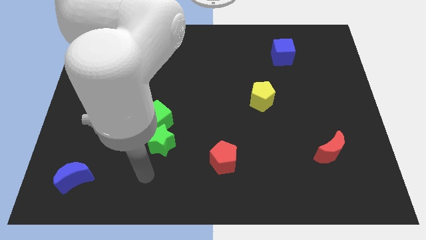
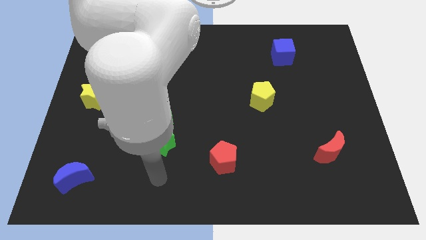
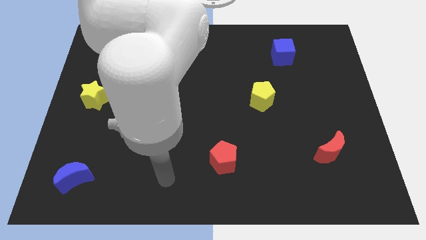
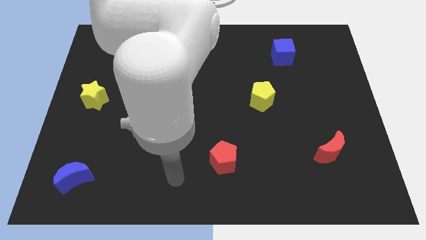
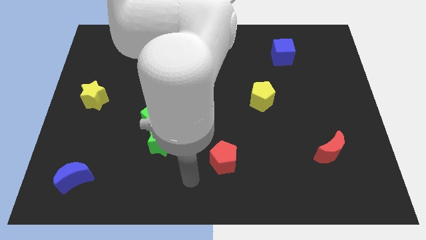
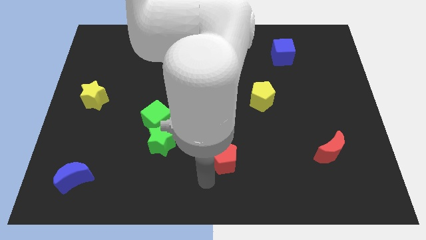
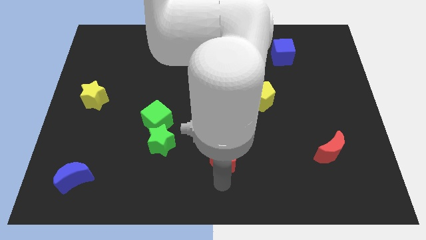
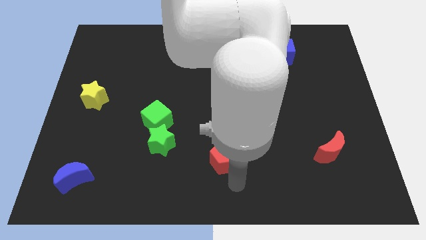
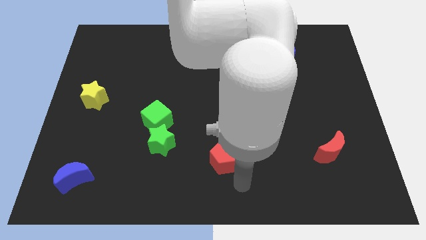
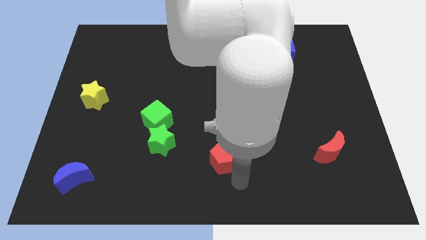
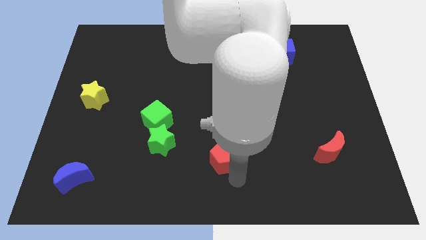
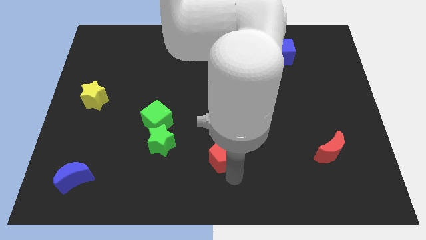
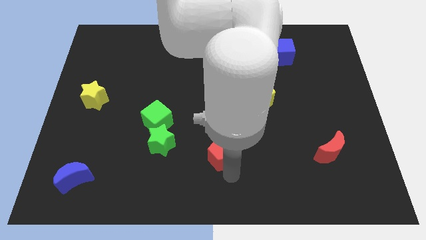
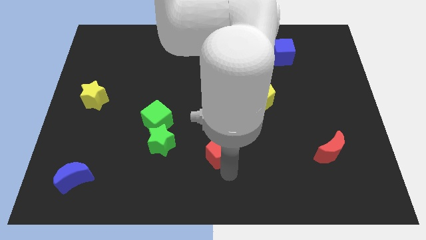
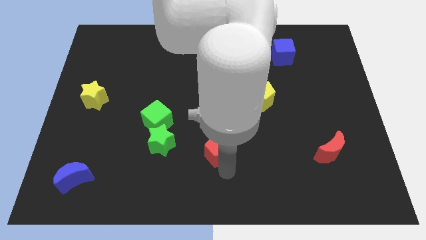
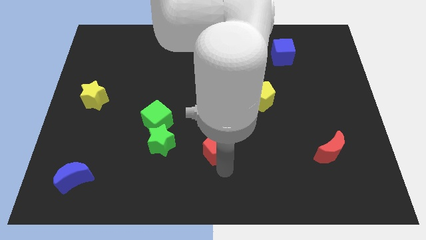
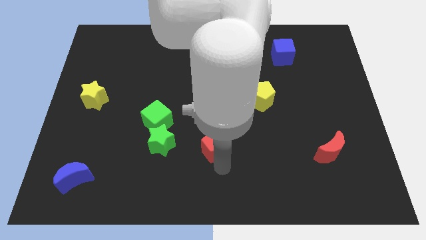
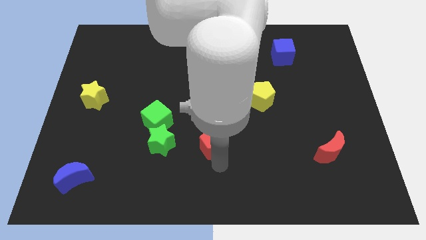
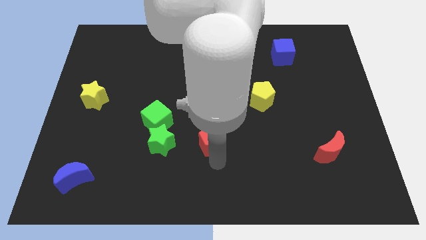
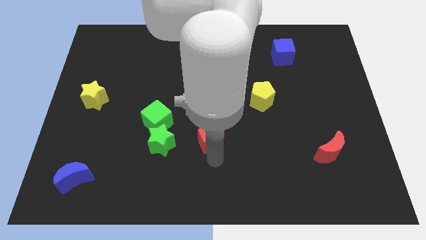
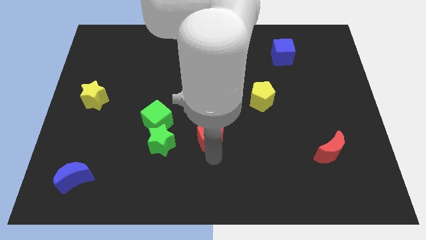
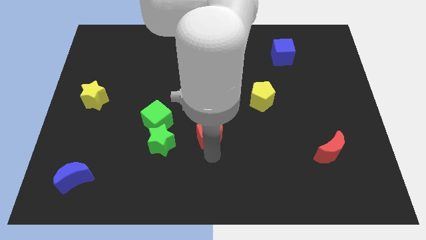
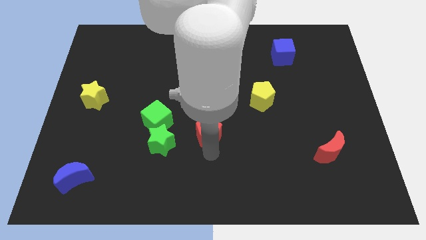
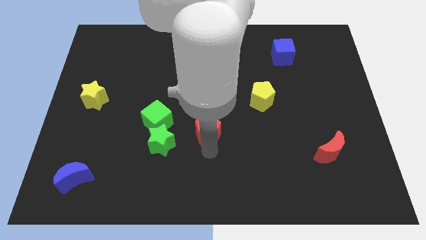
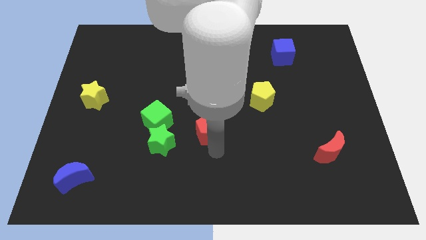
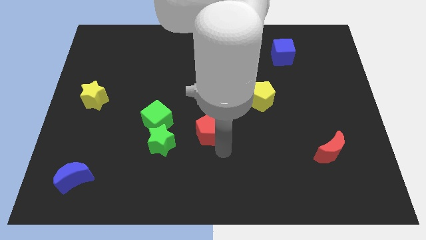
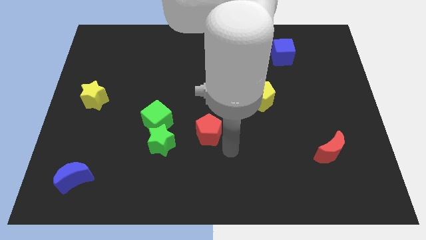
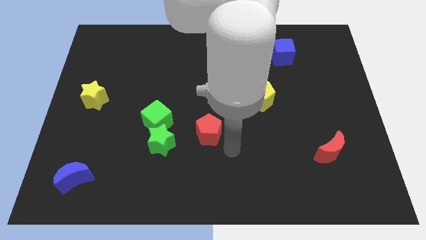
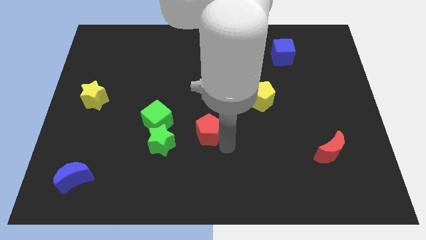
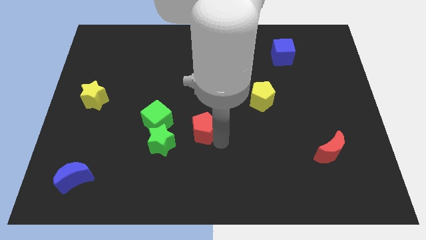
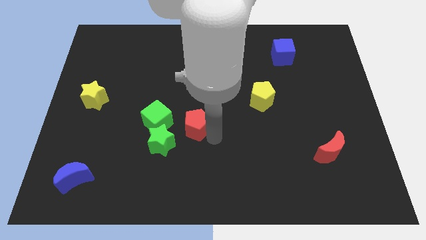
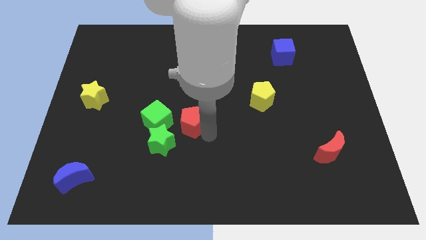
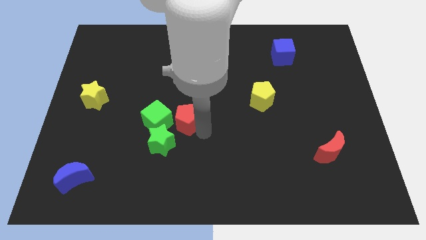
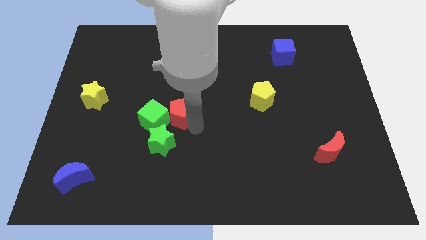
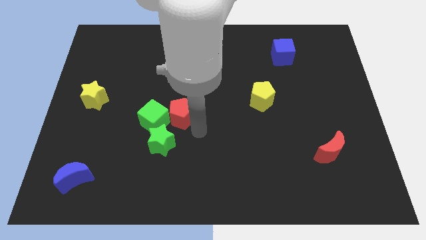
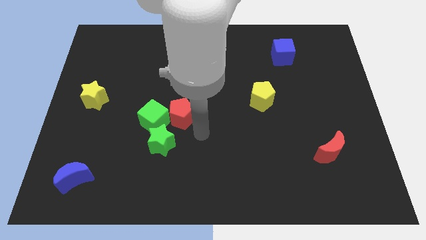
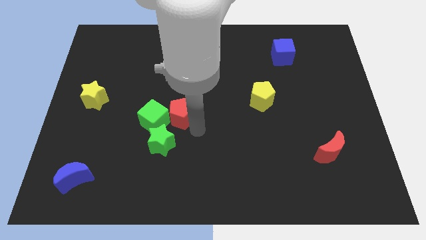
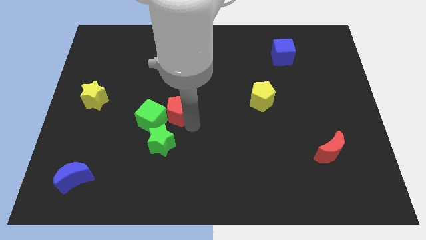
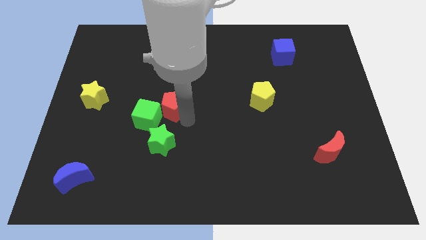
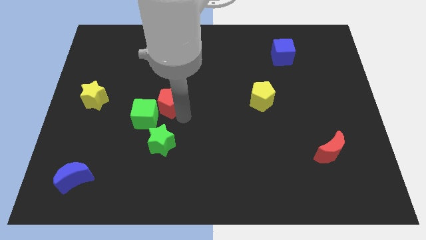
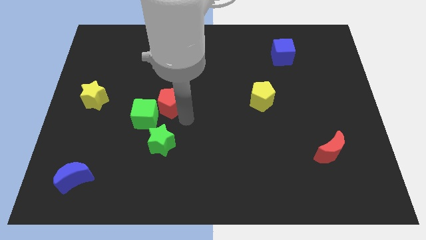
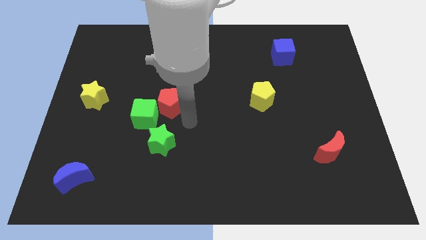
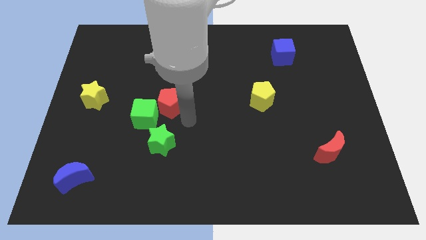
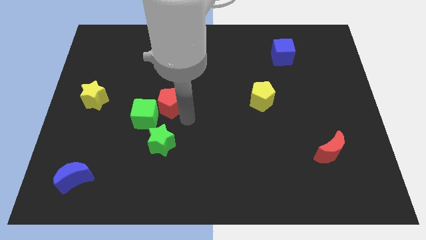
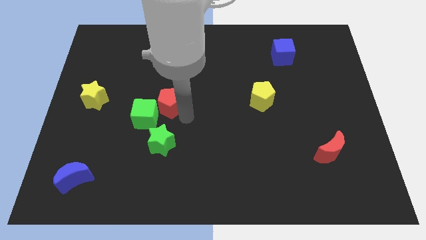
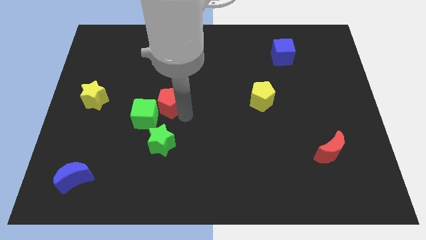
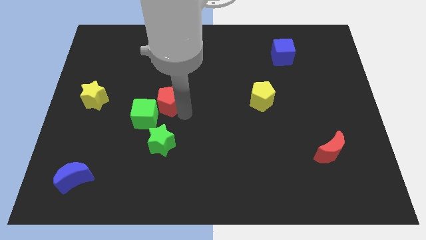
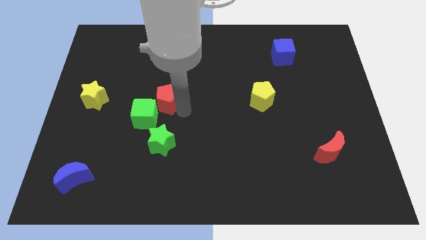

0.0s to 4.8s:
push the red pentagon up and left diagonally

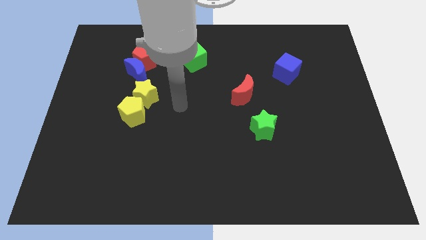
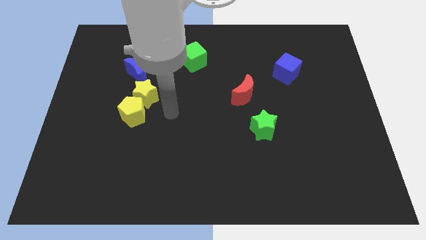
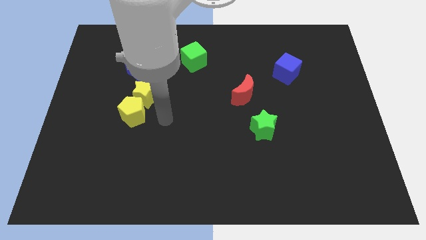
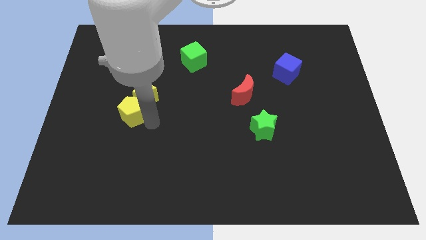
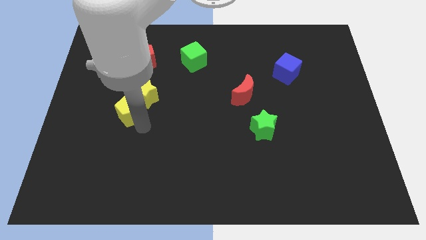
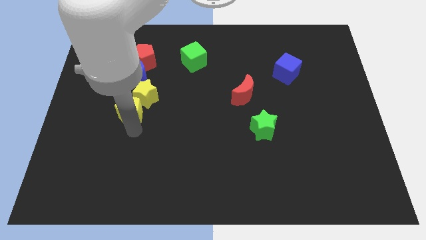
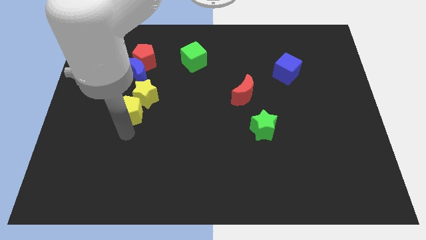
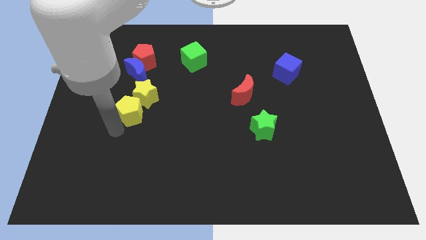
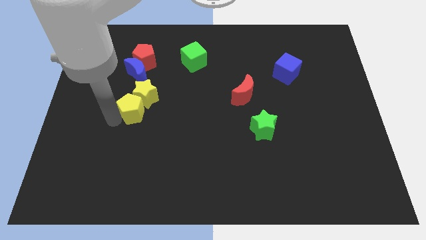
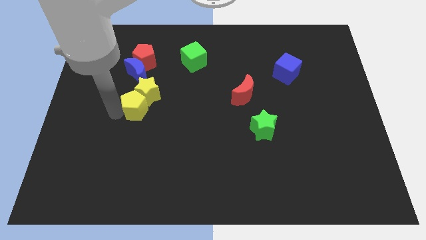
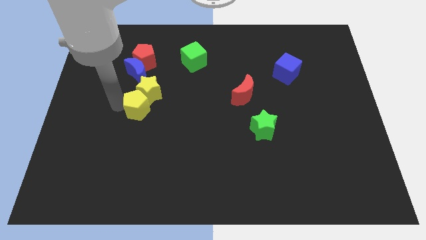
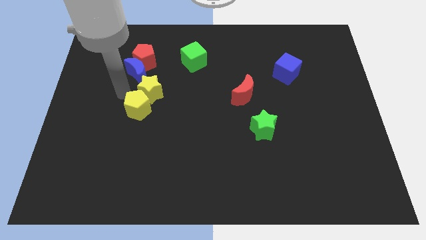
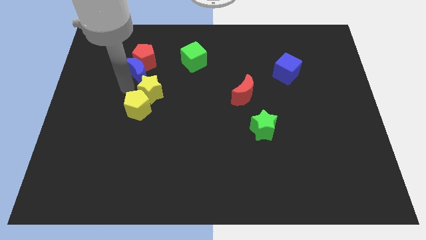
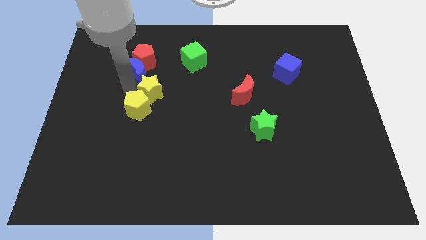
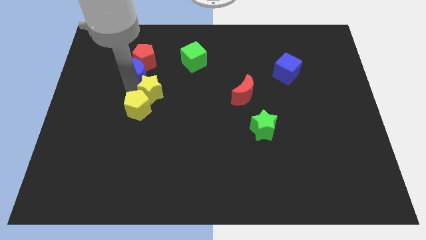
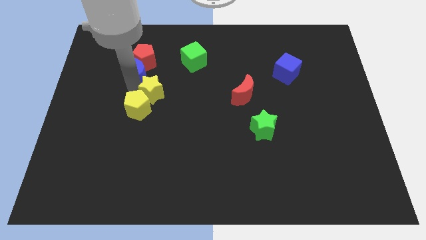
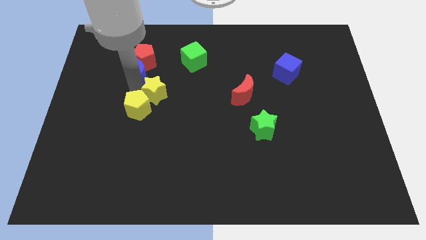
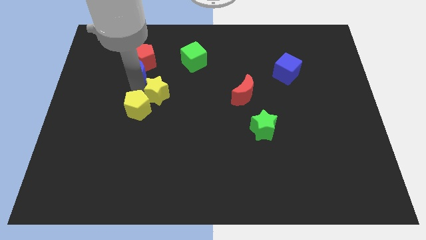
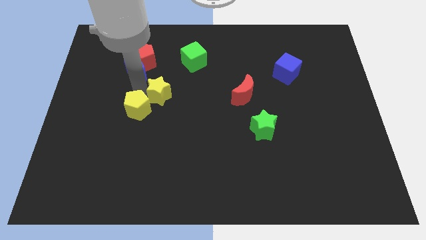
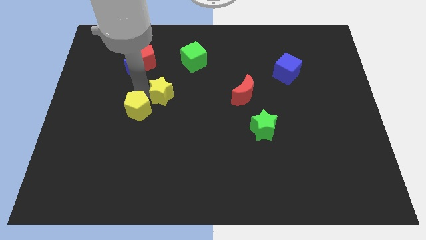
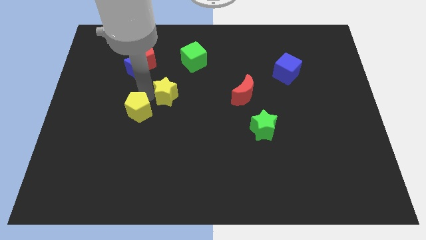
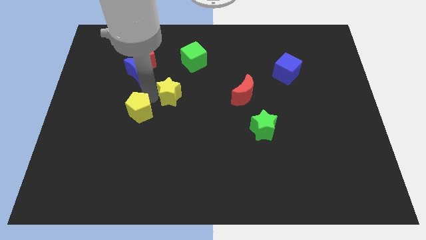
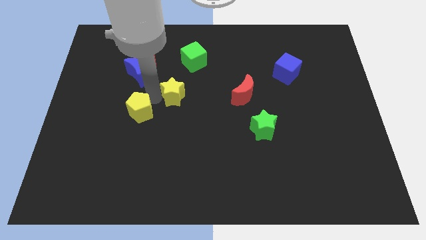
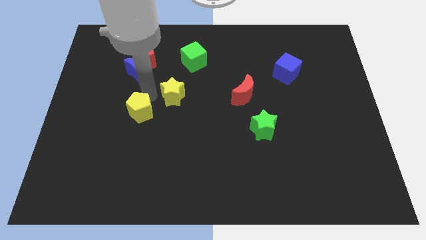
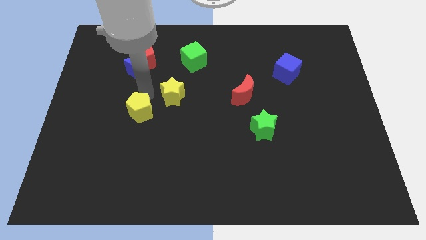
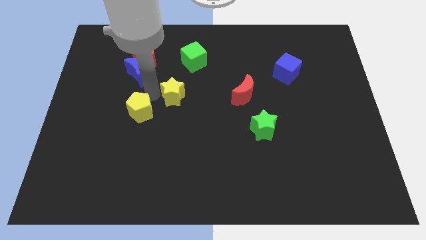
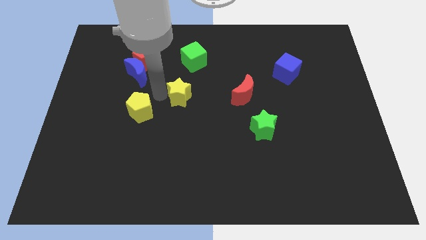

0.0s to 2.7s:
move the yellow star a little right

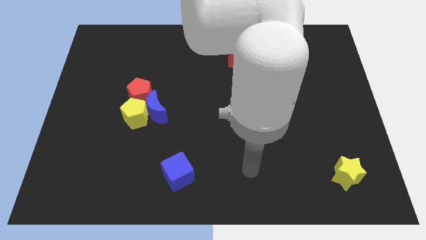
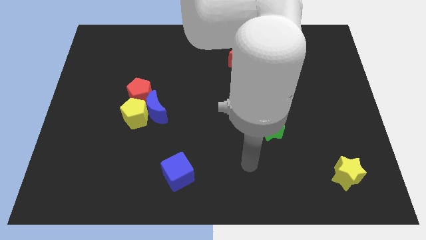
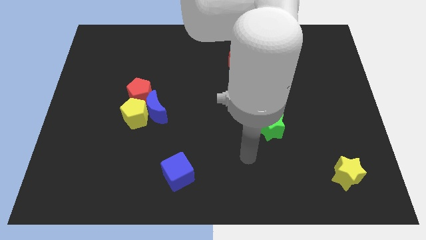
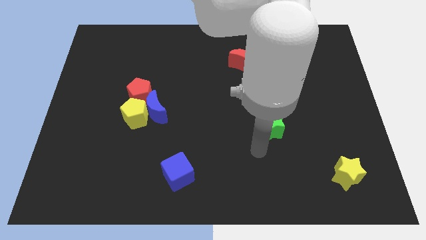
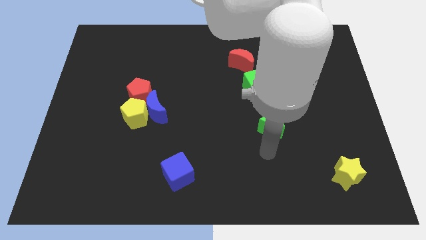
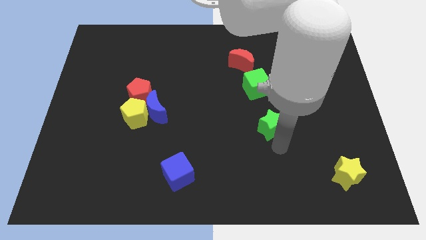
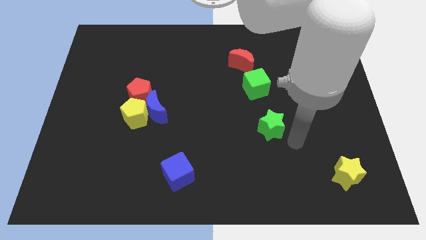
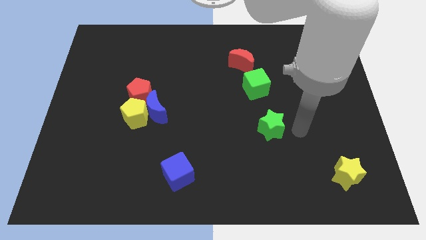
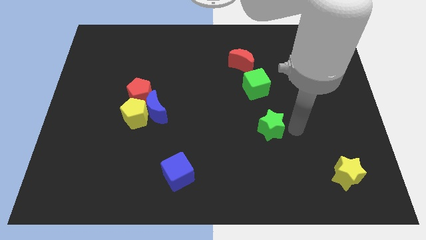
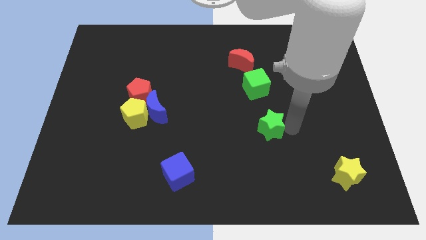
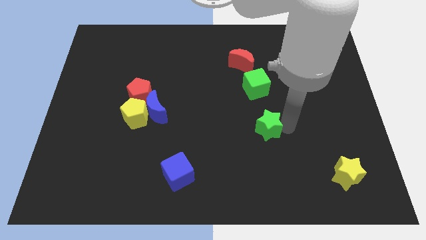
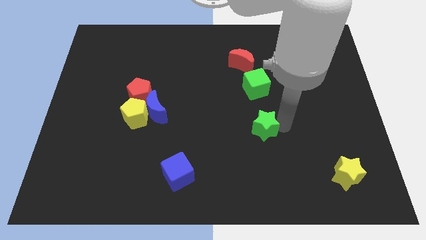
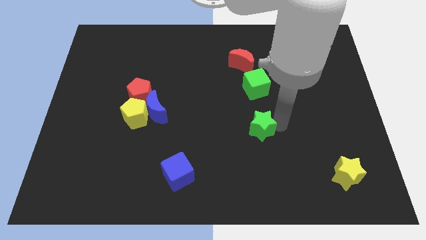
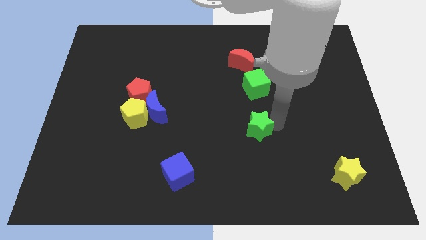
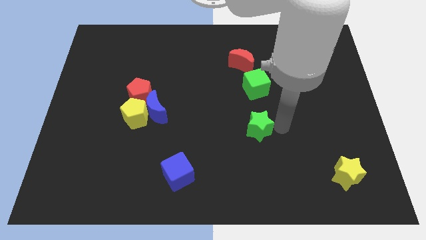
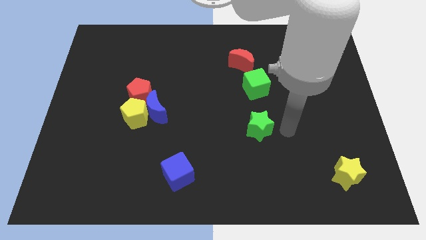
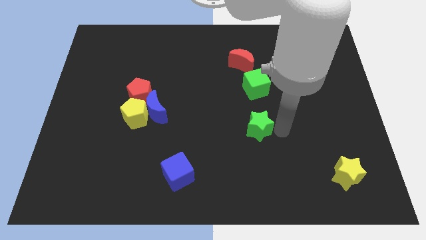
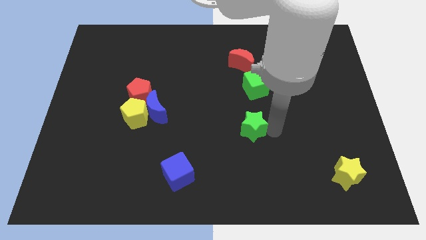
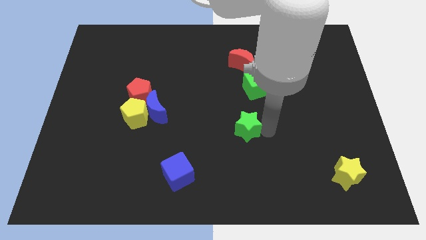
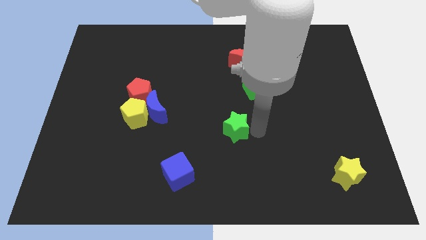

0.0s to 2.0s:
slide the green star somewhat to the left
